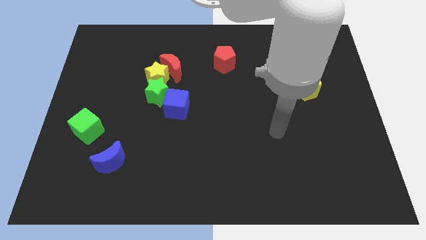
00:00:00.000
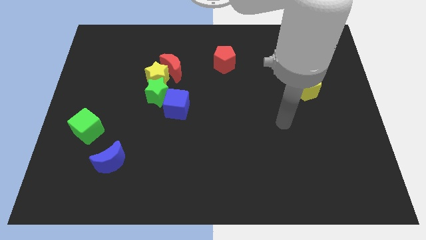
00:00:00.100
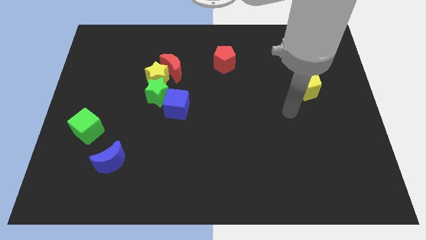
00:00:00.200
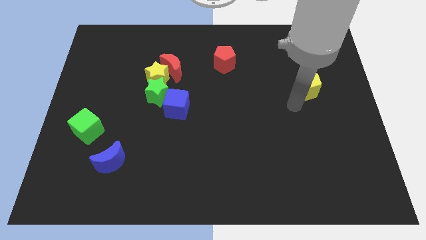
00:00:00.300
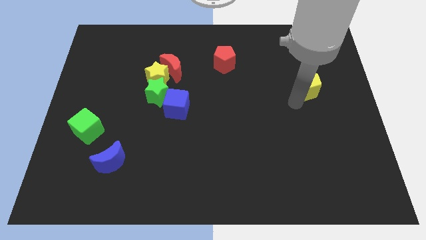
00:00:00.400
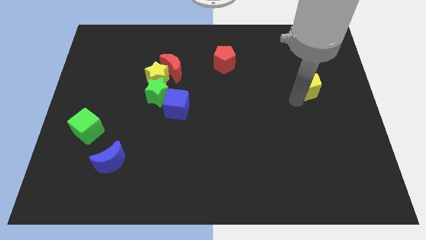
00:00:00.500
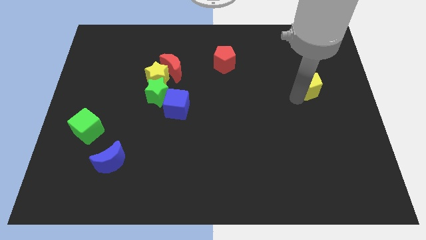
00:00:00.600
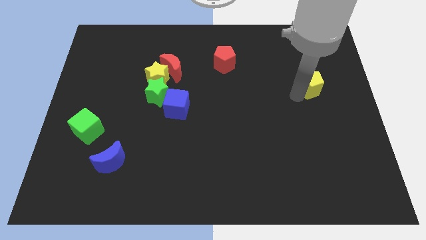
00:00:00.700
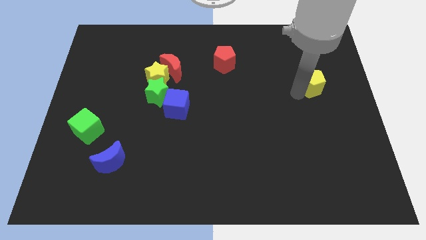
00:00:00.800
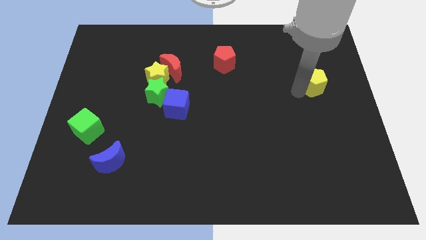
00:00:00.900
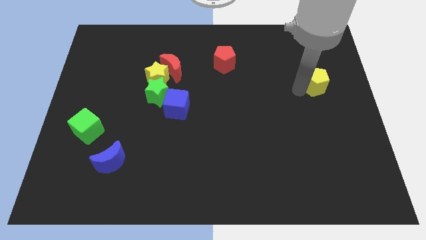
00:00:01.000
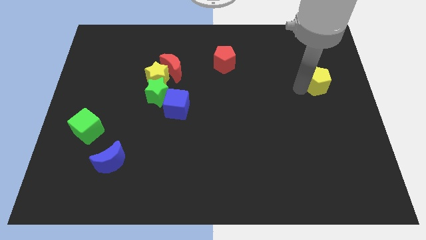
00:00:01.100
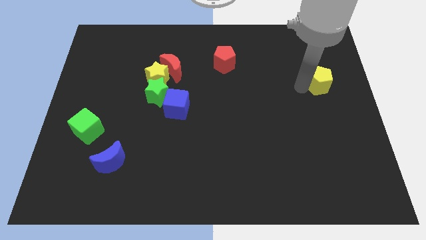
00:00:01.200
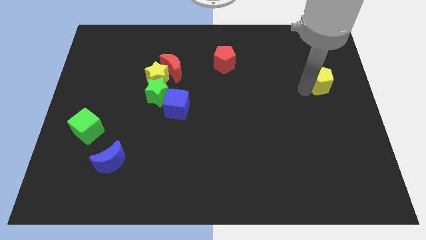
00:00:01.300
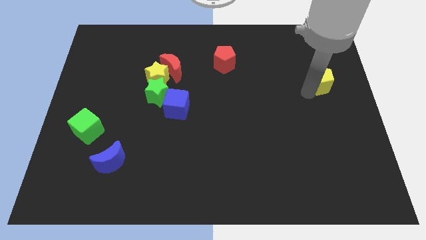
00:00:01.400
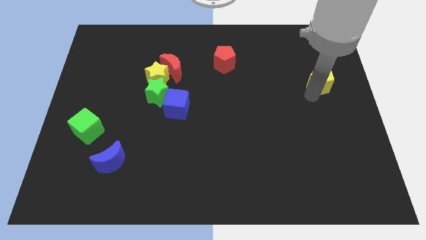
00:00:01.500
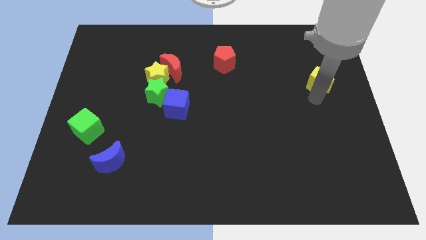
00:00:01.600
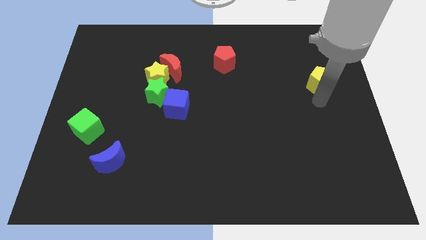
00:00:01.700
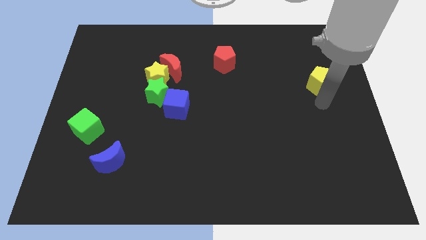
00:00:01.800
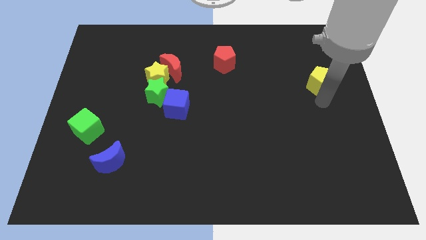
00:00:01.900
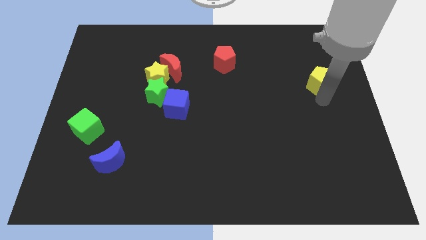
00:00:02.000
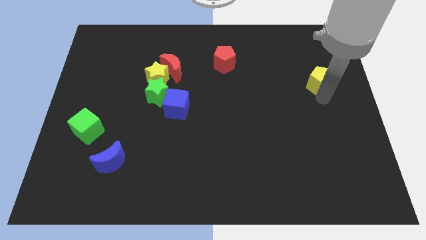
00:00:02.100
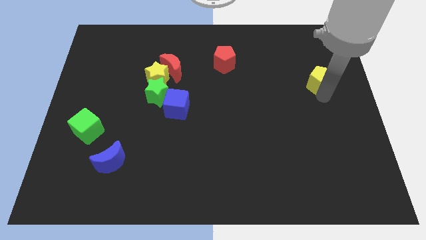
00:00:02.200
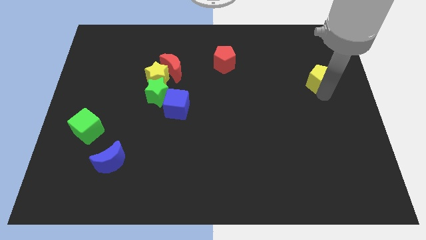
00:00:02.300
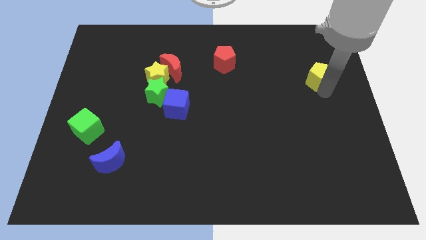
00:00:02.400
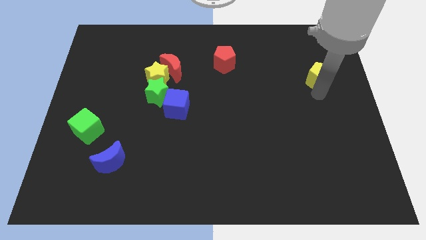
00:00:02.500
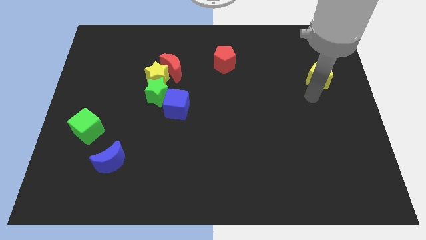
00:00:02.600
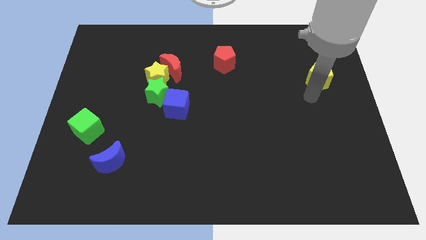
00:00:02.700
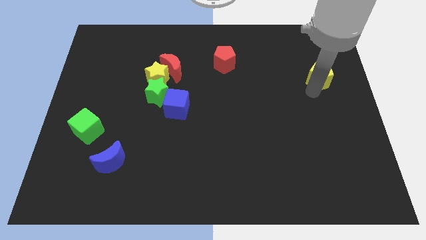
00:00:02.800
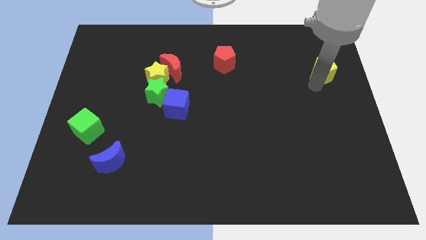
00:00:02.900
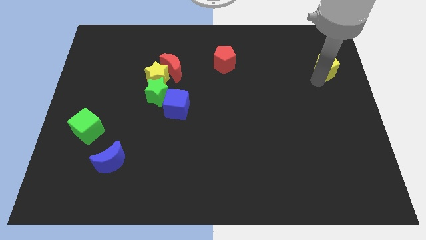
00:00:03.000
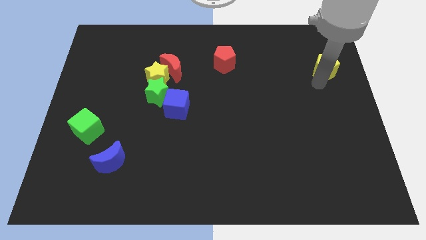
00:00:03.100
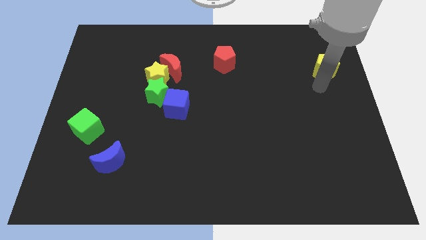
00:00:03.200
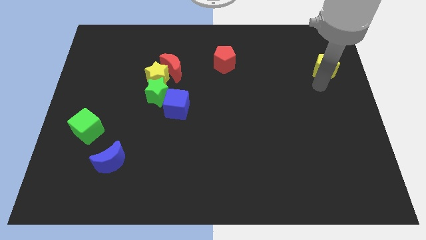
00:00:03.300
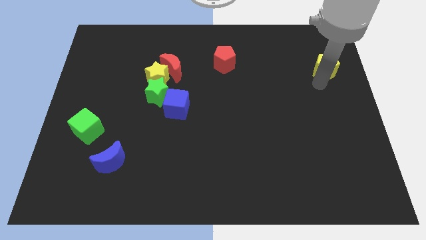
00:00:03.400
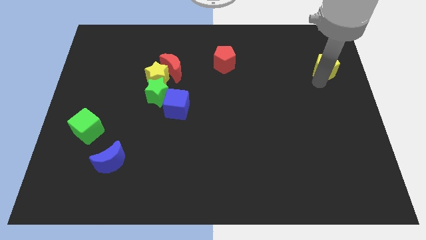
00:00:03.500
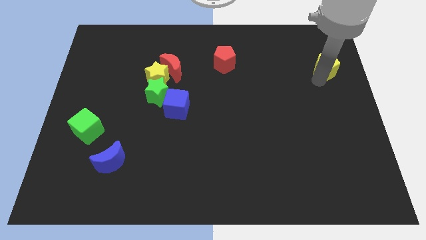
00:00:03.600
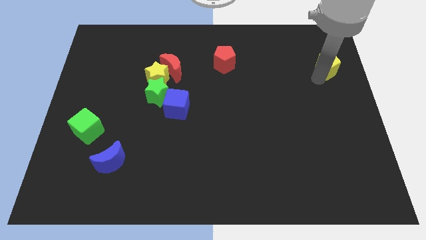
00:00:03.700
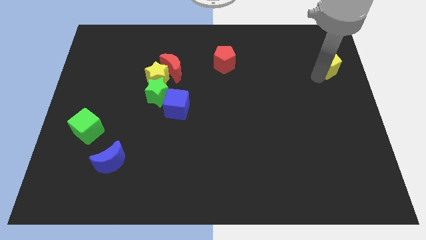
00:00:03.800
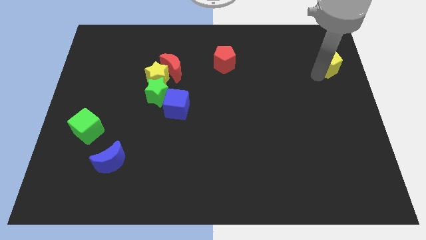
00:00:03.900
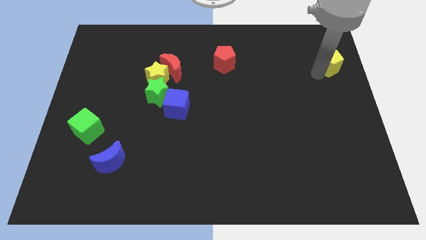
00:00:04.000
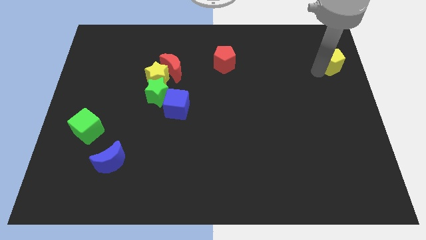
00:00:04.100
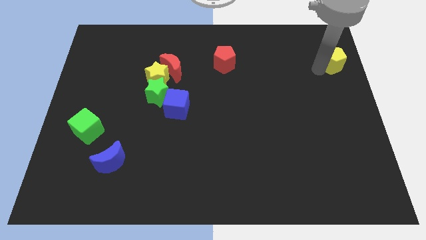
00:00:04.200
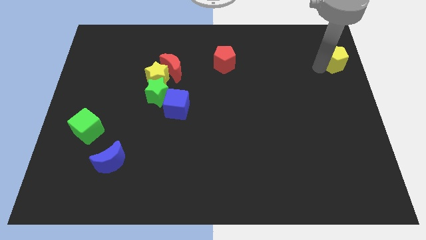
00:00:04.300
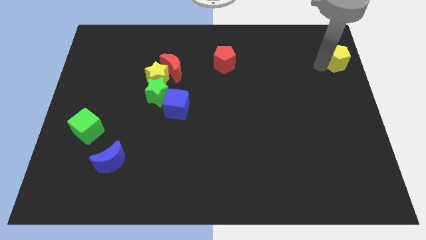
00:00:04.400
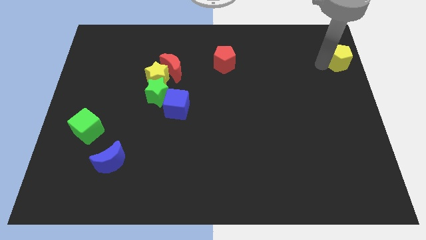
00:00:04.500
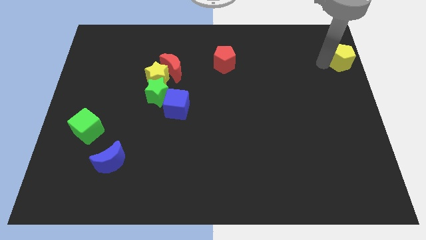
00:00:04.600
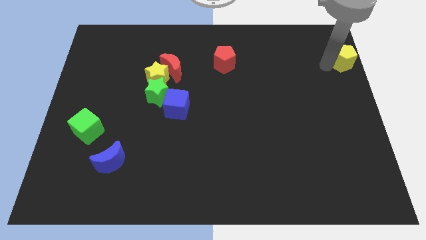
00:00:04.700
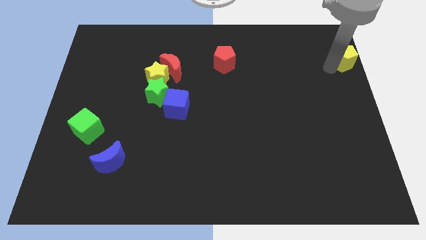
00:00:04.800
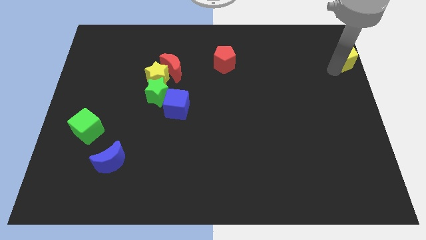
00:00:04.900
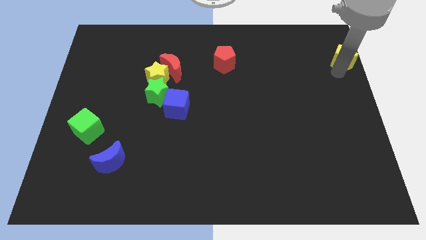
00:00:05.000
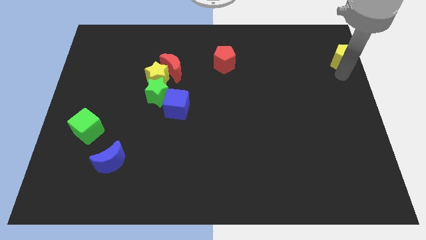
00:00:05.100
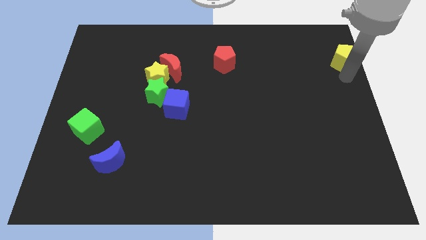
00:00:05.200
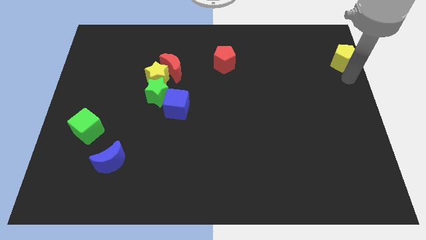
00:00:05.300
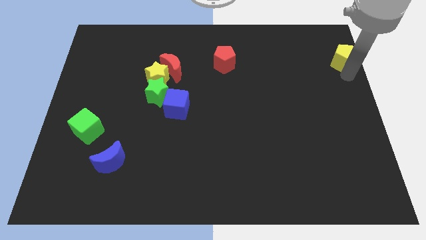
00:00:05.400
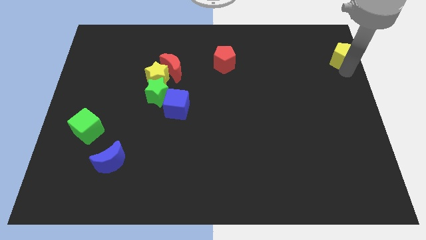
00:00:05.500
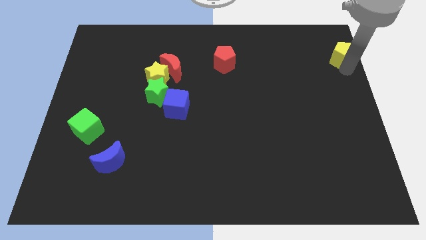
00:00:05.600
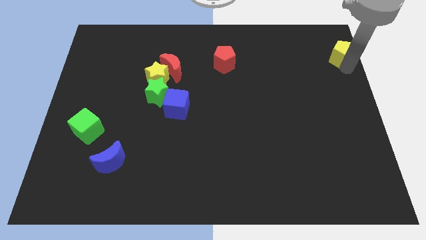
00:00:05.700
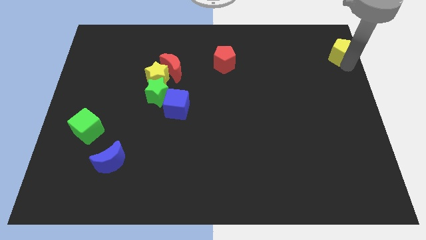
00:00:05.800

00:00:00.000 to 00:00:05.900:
slide the yellow pentagon to the top right of the board

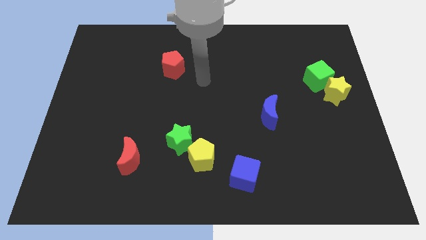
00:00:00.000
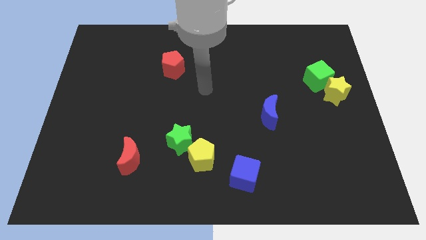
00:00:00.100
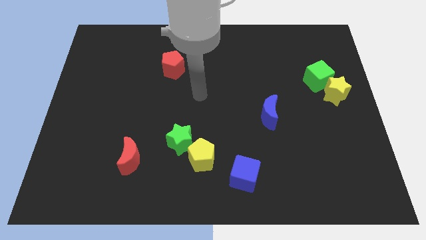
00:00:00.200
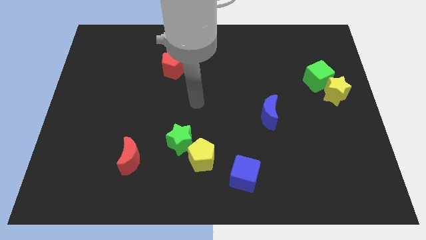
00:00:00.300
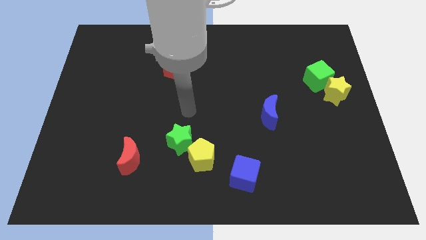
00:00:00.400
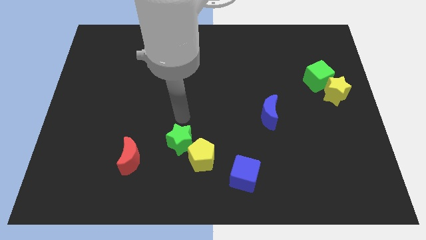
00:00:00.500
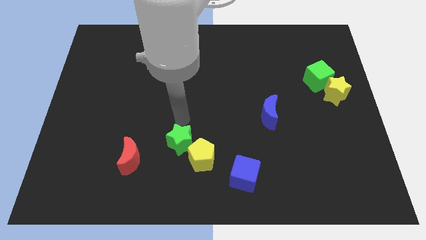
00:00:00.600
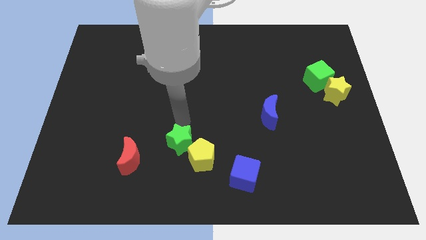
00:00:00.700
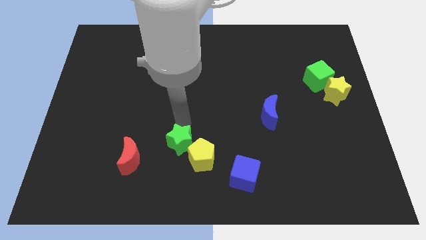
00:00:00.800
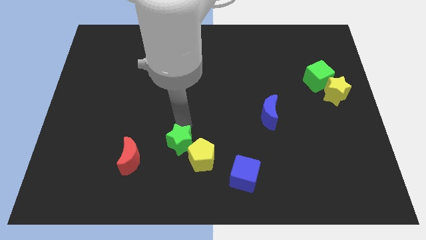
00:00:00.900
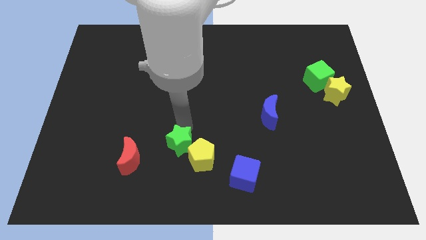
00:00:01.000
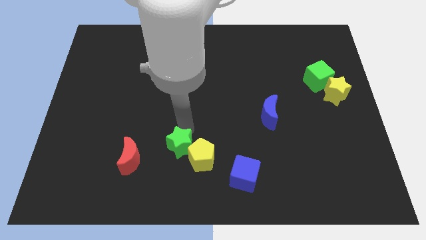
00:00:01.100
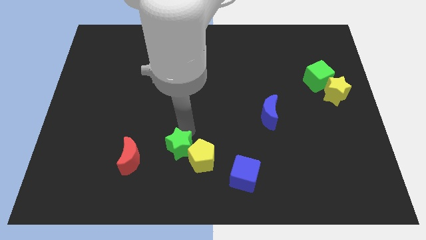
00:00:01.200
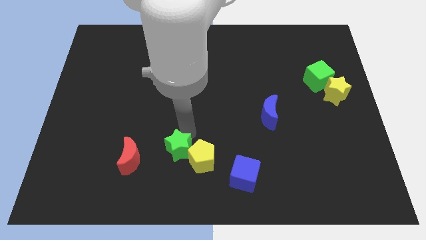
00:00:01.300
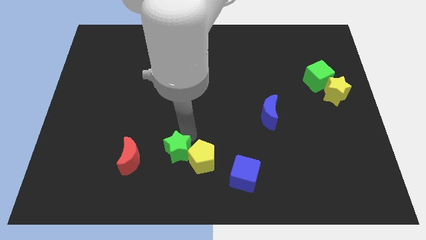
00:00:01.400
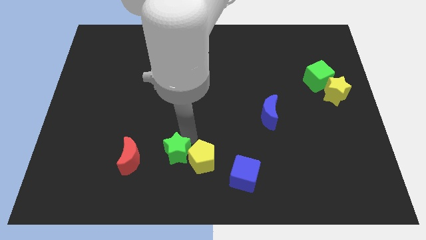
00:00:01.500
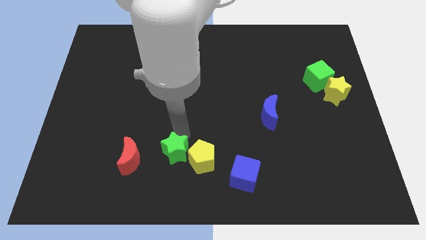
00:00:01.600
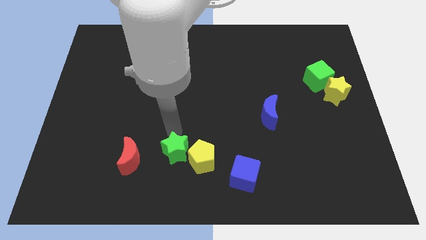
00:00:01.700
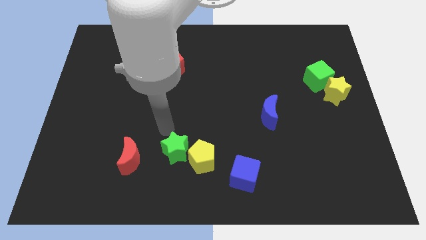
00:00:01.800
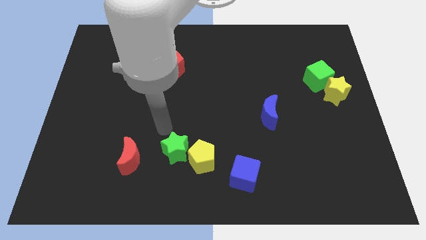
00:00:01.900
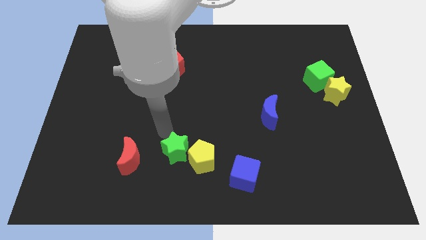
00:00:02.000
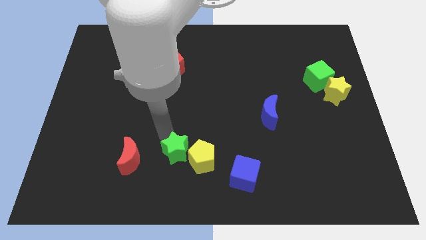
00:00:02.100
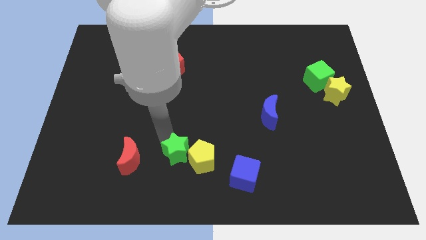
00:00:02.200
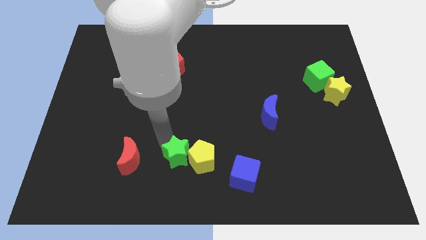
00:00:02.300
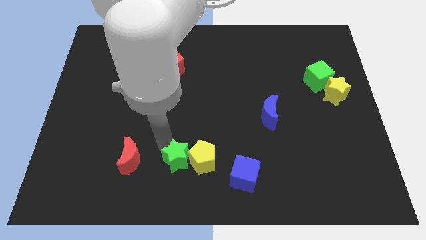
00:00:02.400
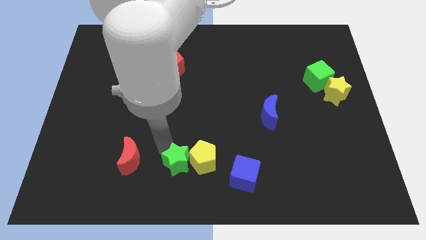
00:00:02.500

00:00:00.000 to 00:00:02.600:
slide the green star to the bottom side
